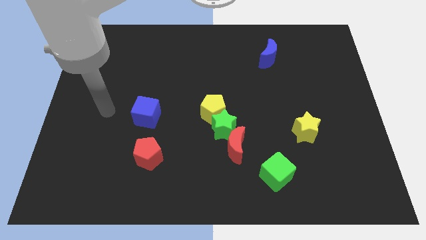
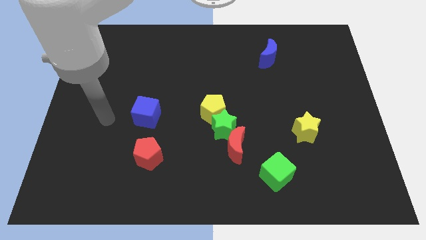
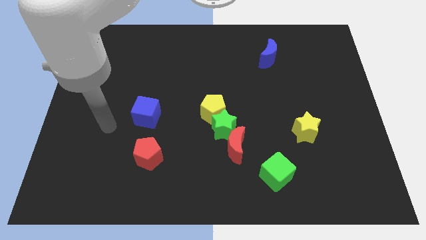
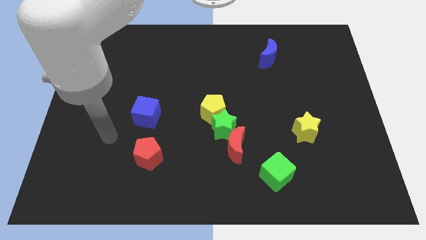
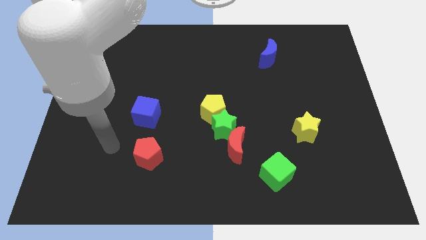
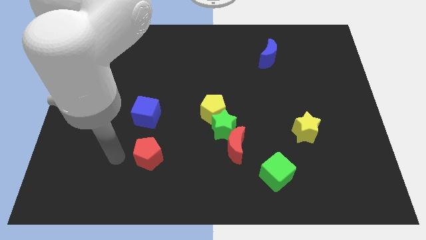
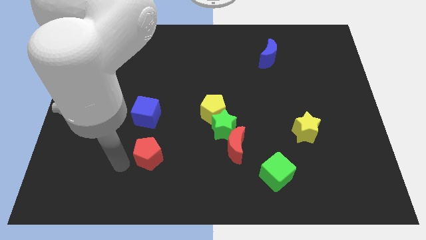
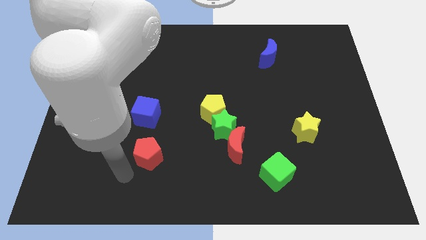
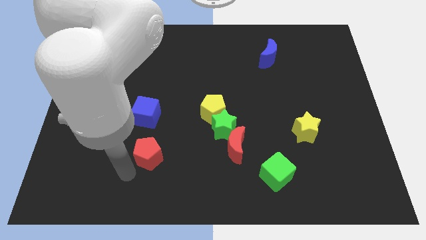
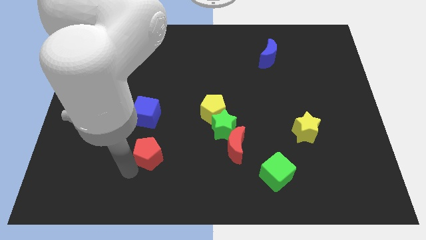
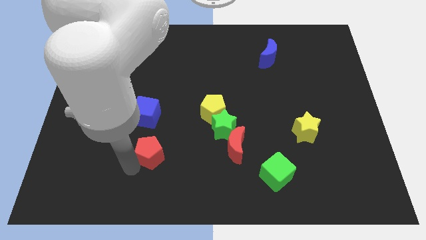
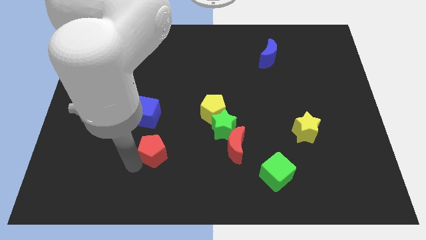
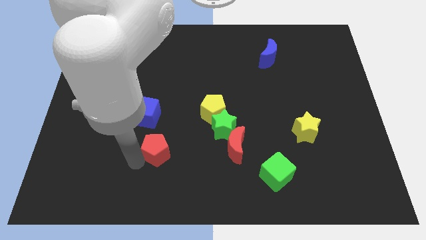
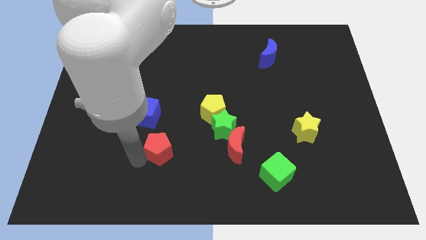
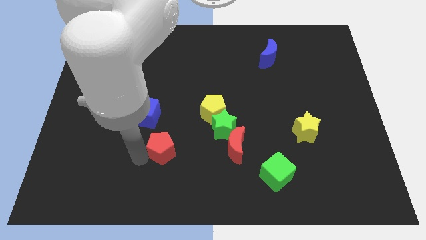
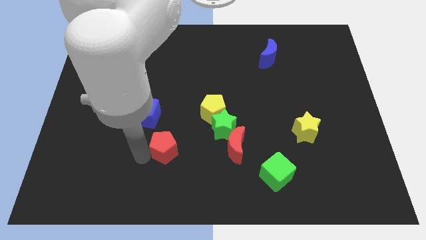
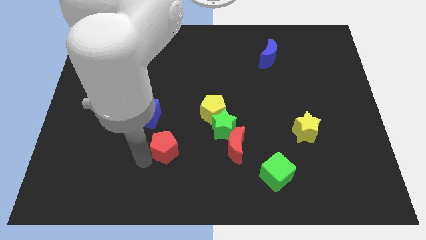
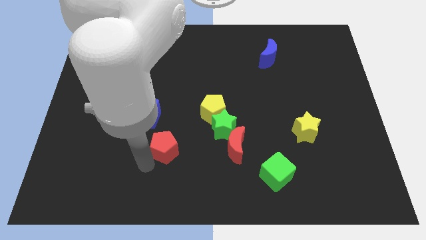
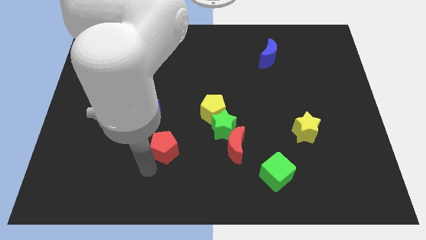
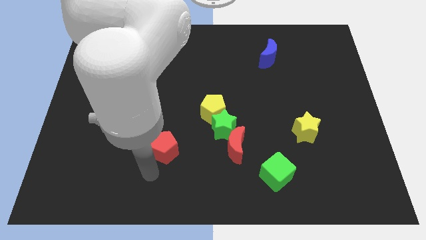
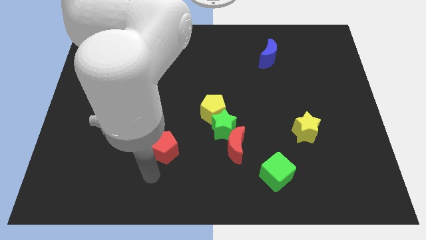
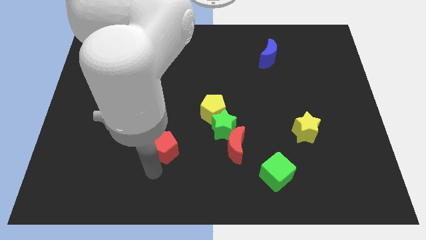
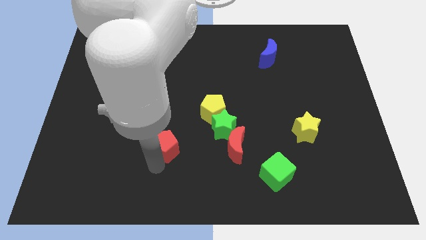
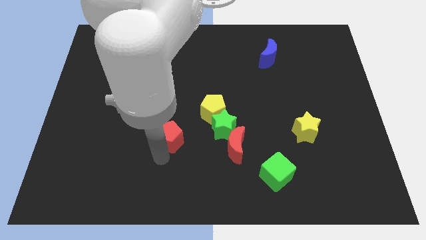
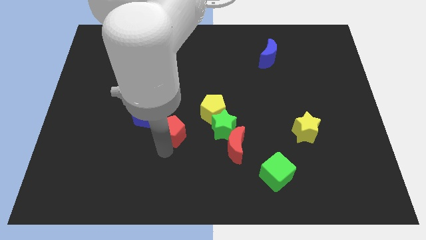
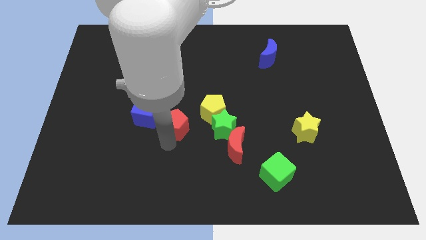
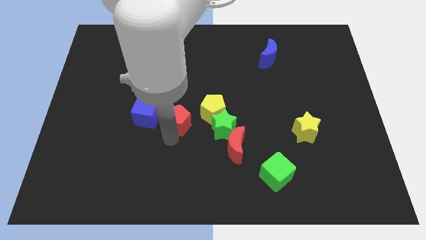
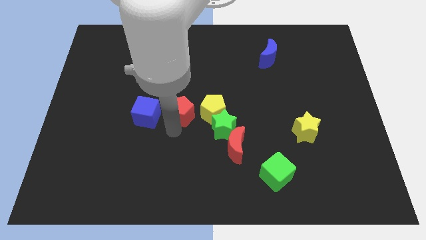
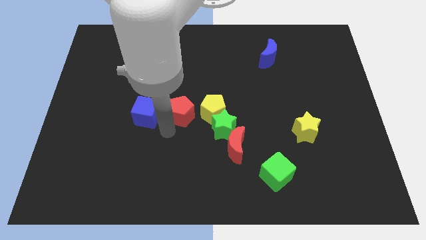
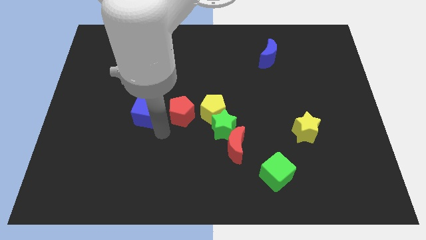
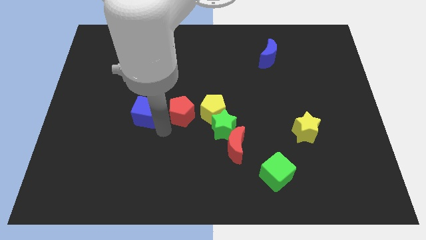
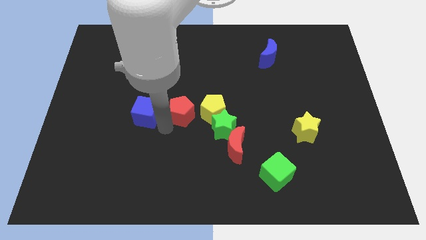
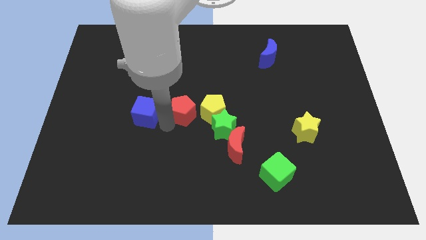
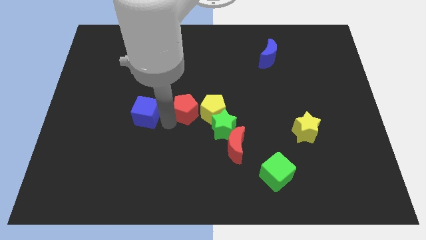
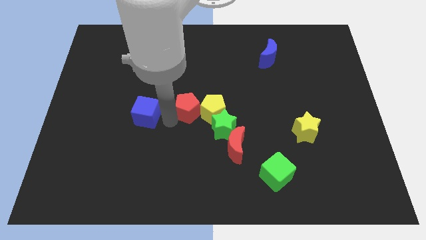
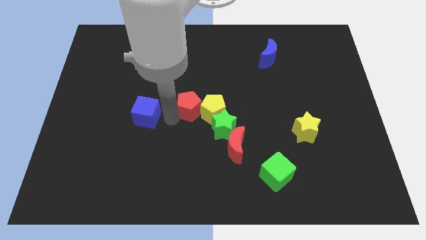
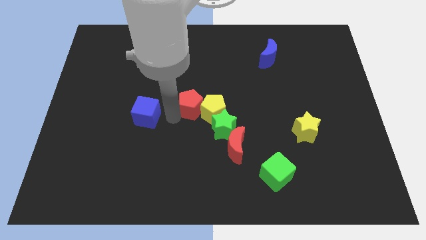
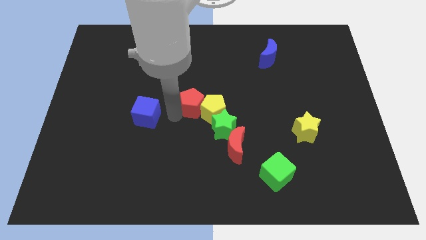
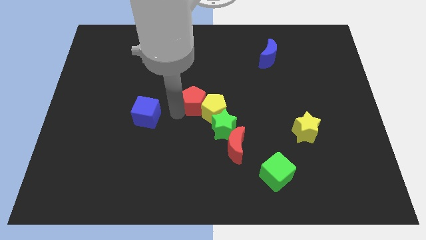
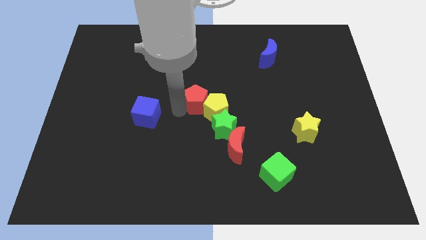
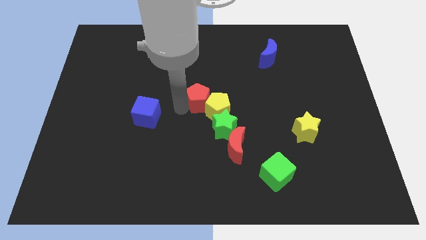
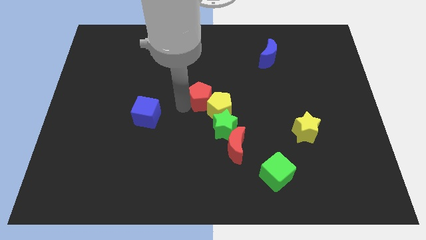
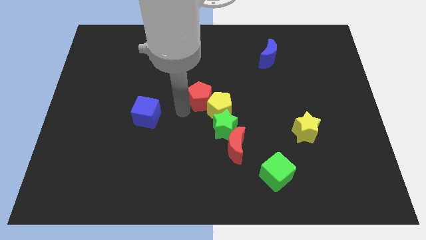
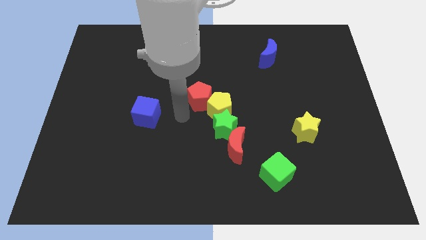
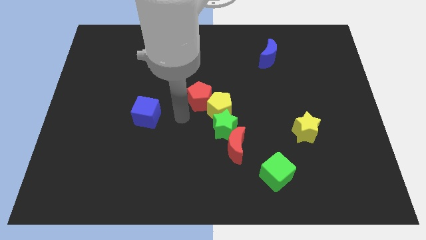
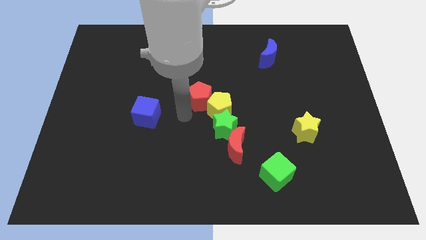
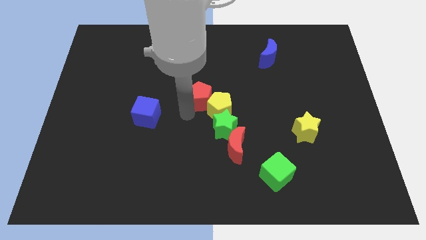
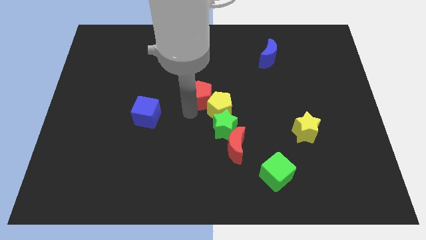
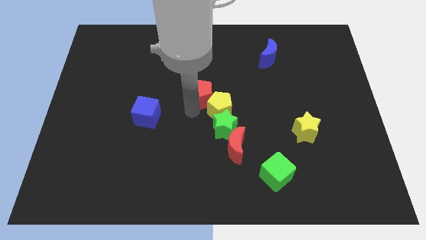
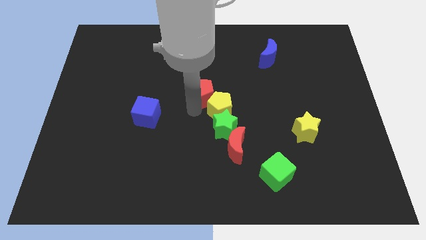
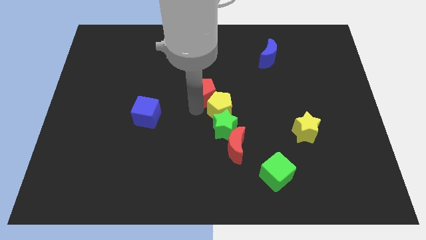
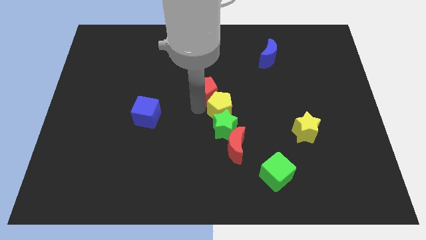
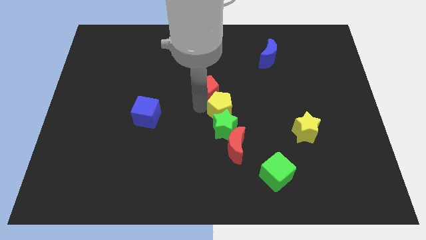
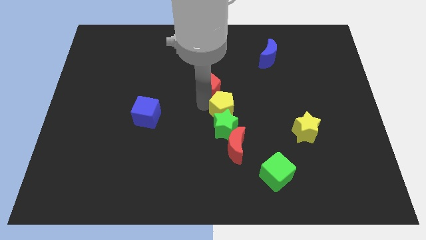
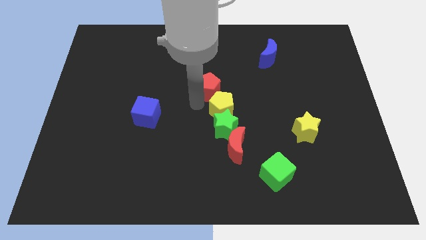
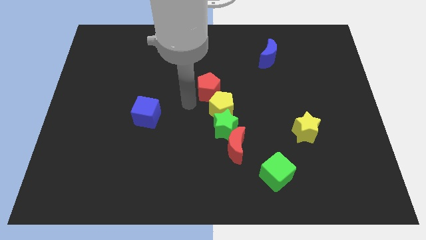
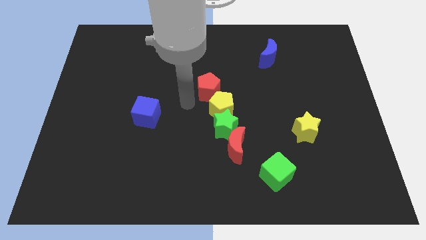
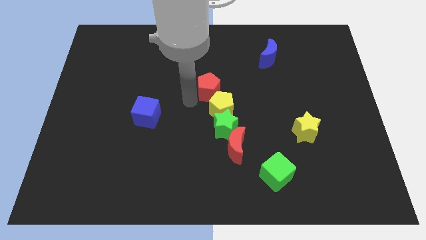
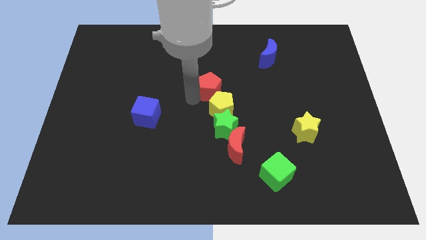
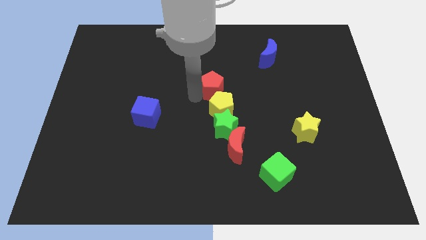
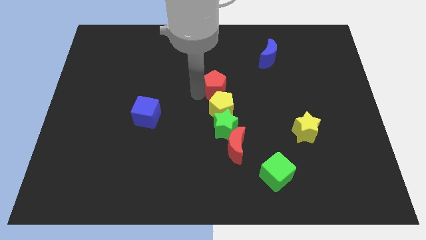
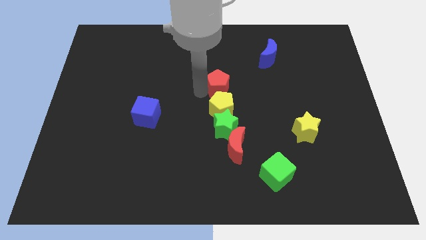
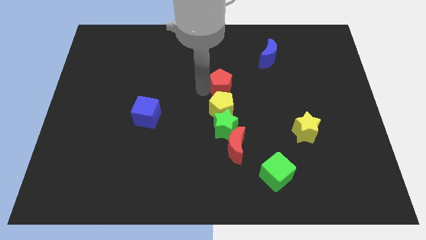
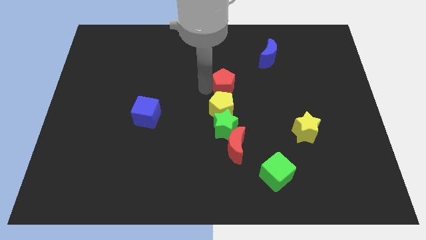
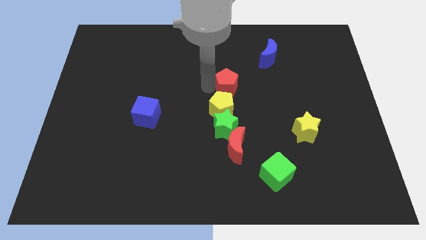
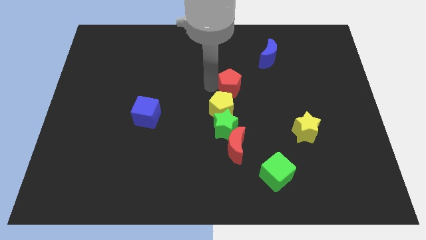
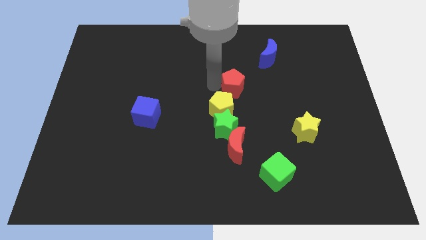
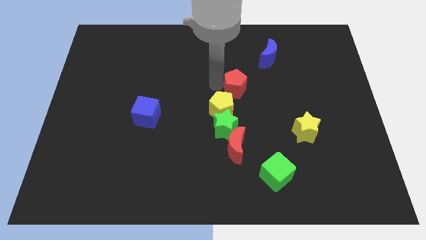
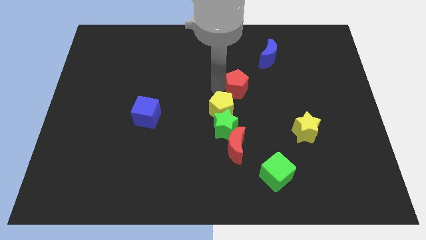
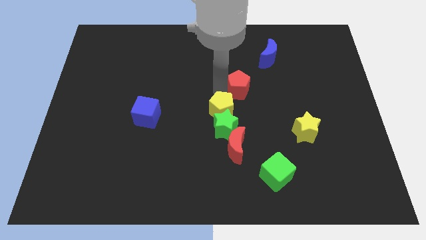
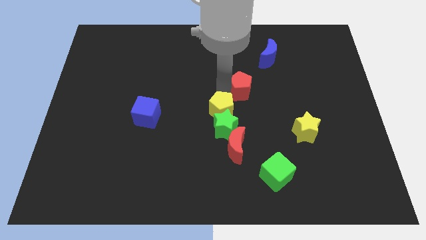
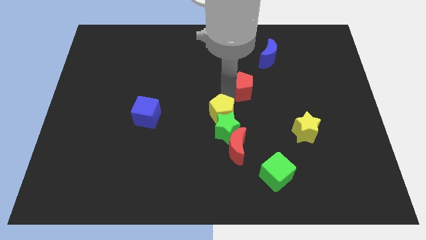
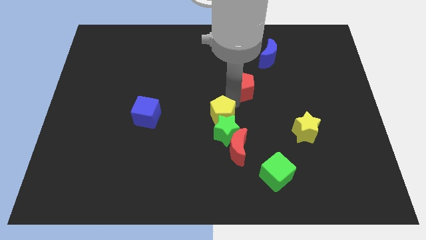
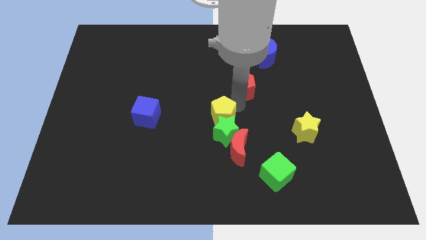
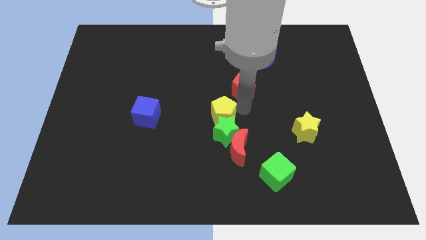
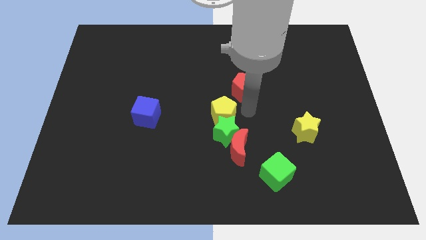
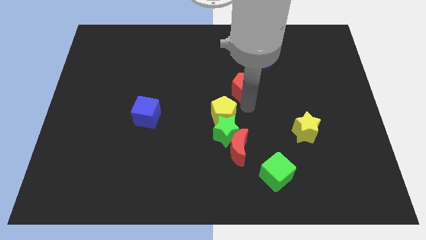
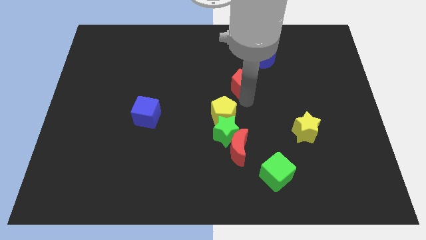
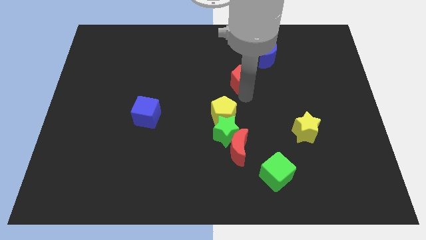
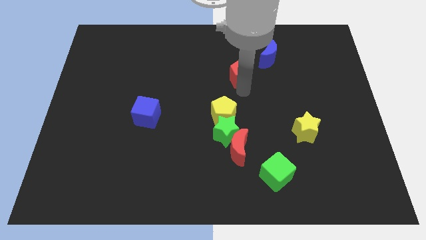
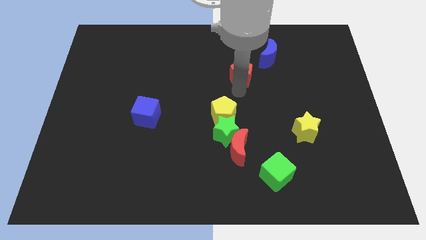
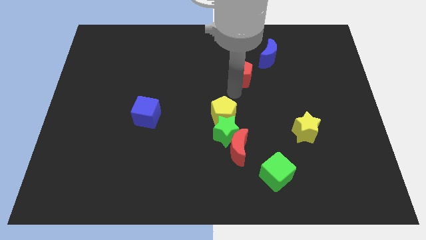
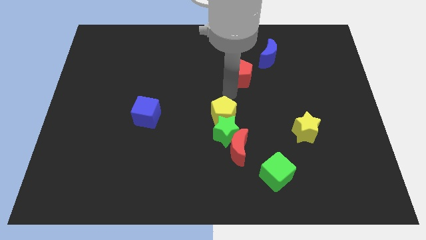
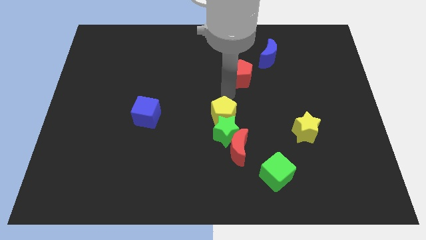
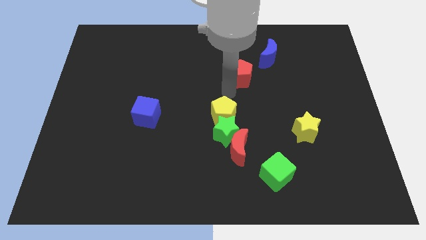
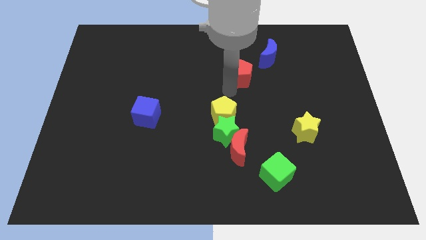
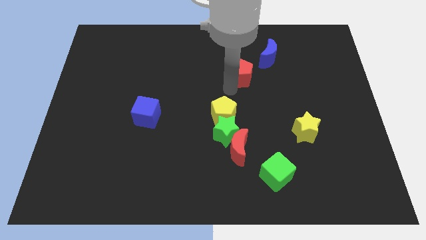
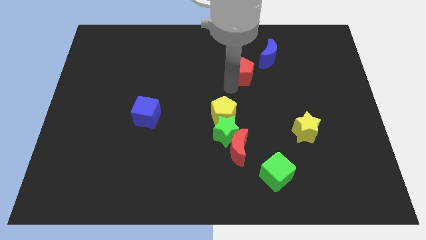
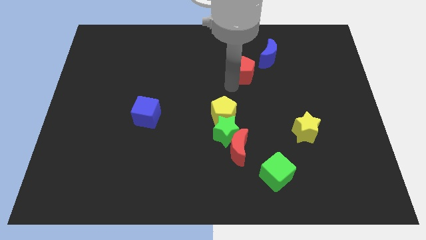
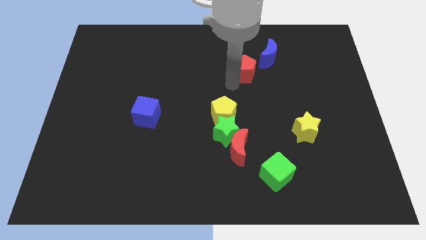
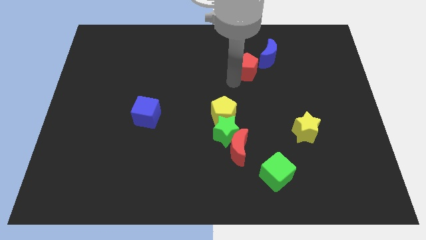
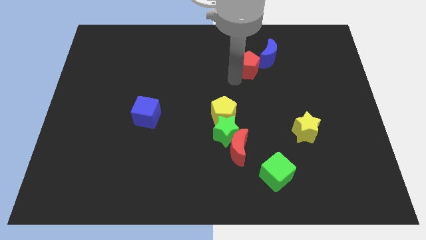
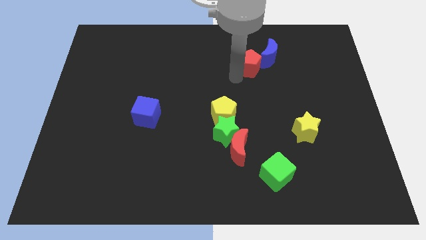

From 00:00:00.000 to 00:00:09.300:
move the red pentagon to the blue moon
